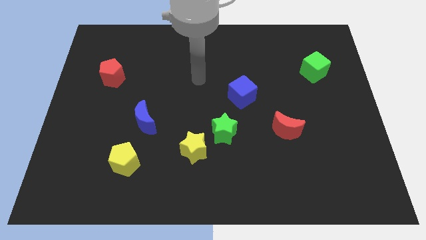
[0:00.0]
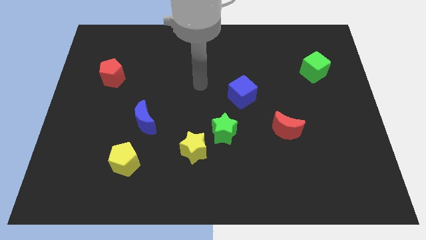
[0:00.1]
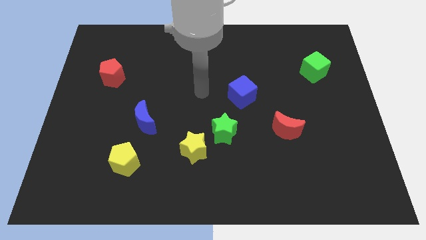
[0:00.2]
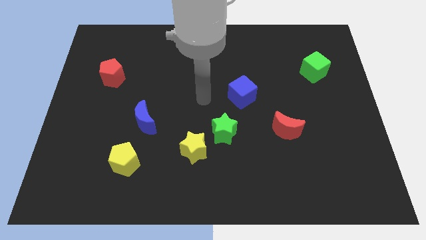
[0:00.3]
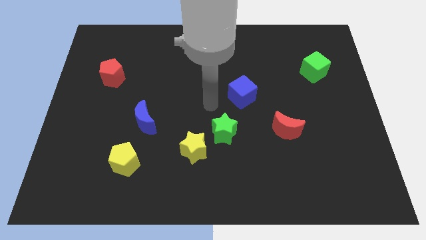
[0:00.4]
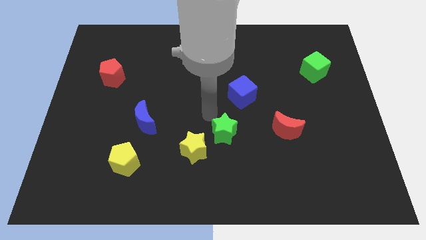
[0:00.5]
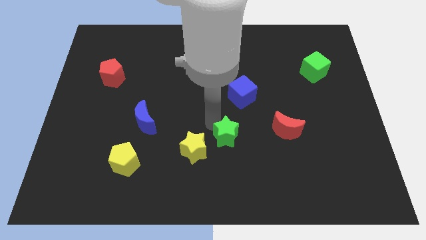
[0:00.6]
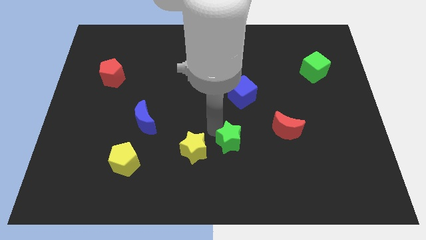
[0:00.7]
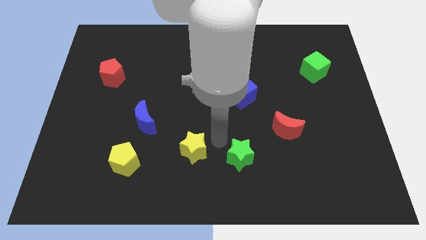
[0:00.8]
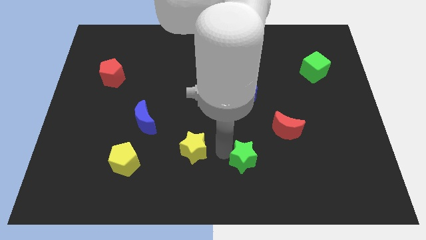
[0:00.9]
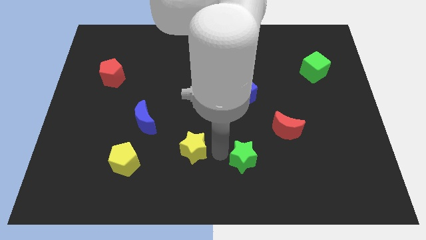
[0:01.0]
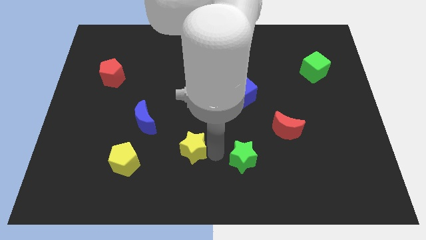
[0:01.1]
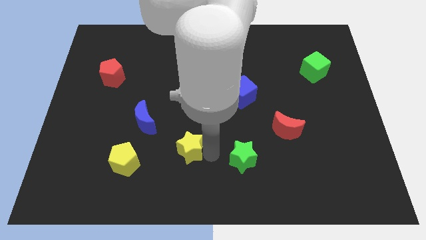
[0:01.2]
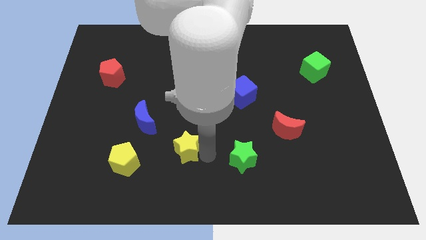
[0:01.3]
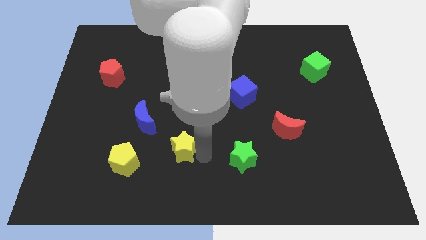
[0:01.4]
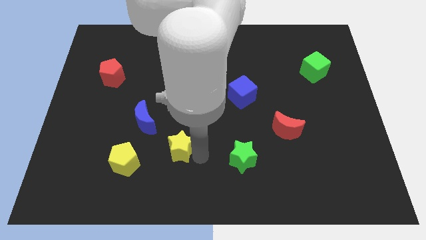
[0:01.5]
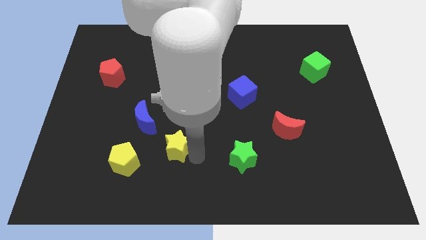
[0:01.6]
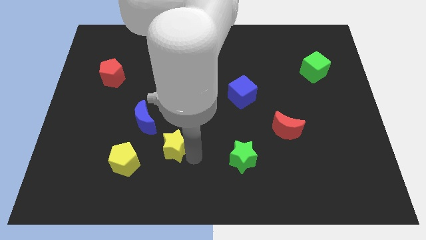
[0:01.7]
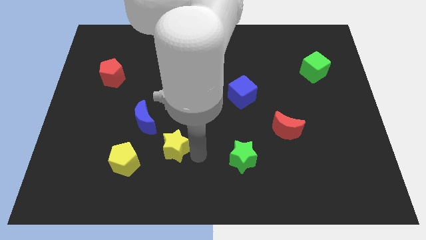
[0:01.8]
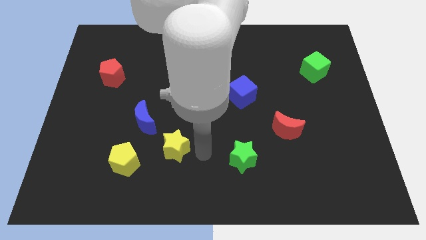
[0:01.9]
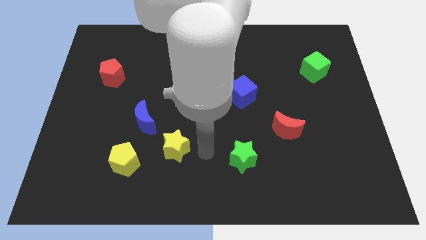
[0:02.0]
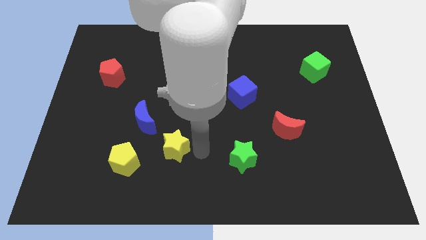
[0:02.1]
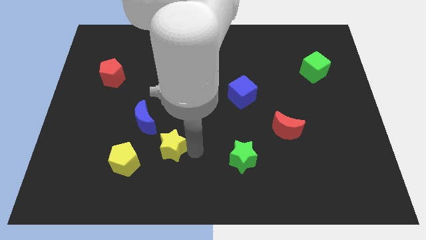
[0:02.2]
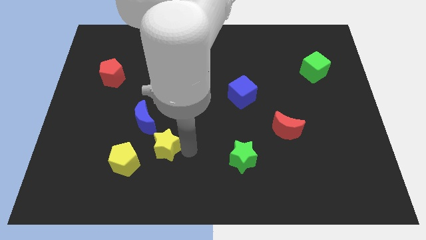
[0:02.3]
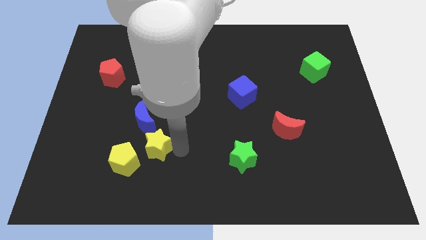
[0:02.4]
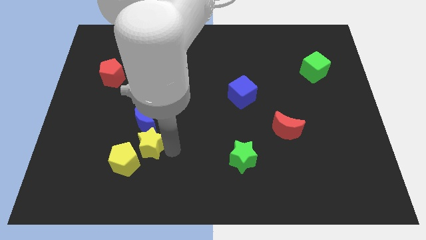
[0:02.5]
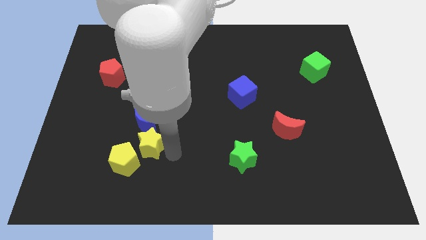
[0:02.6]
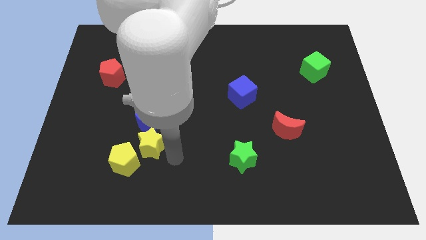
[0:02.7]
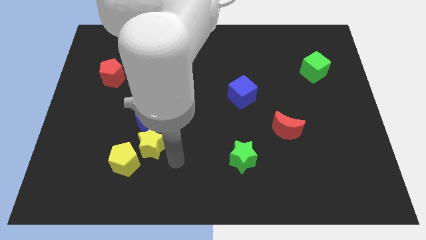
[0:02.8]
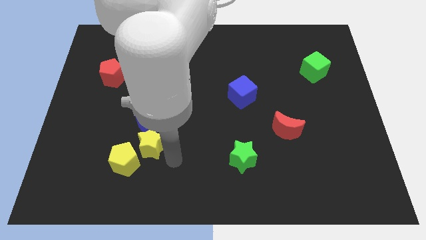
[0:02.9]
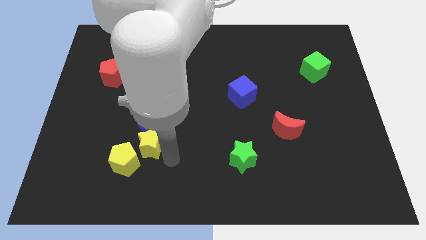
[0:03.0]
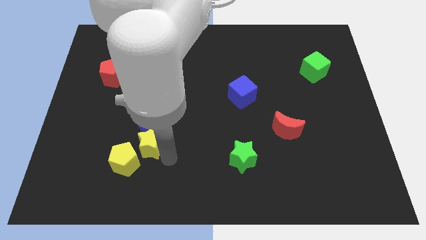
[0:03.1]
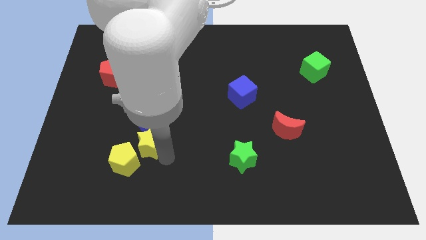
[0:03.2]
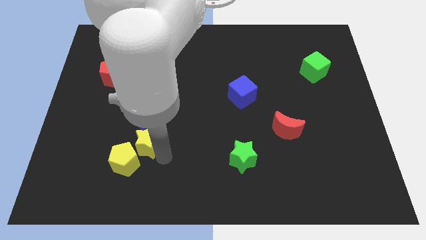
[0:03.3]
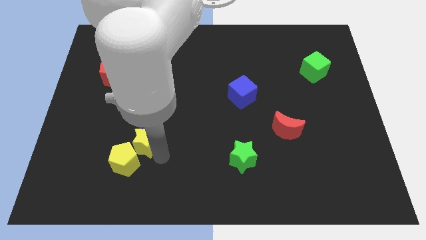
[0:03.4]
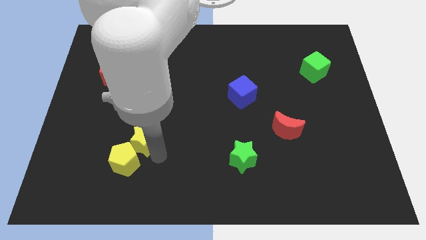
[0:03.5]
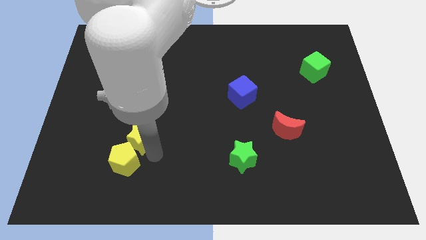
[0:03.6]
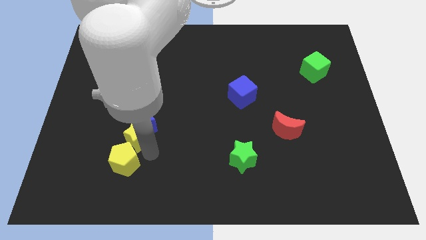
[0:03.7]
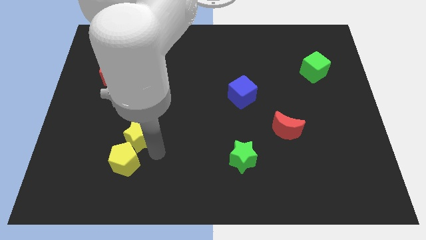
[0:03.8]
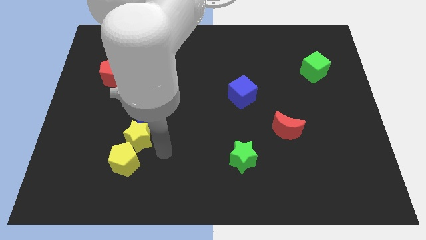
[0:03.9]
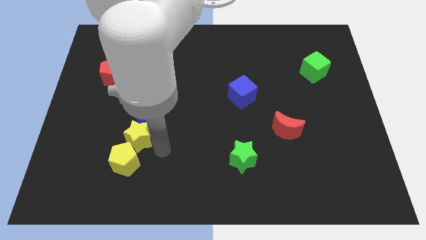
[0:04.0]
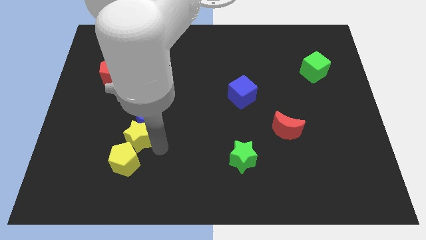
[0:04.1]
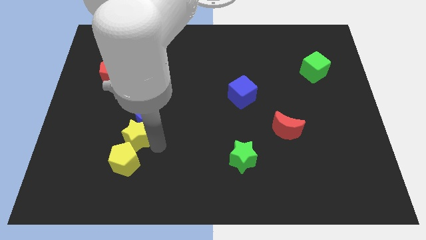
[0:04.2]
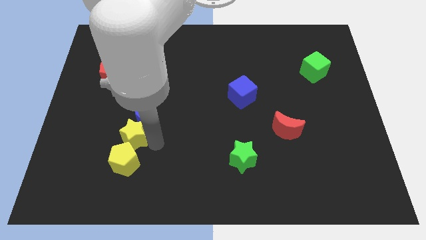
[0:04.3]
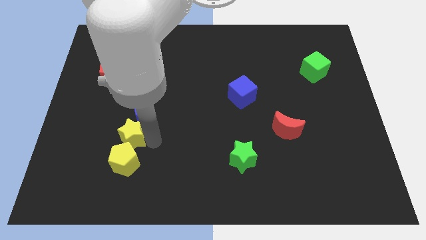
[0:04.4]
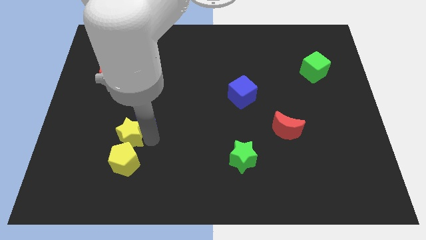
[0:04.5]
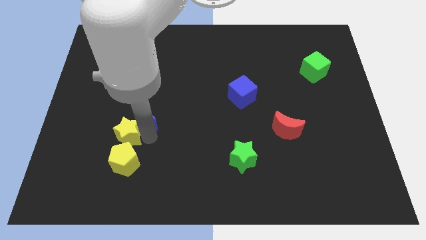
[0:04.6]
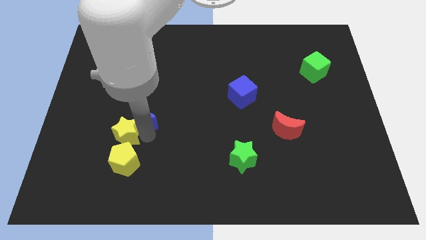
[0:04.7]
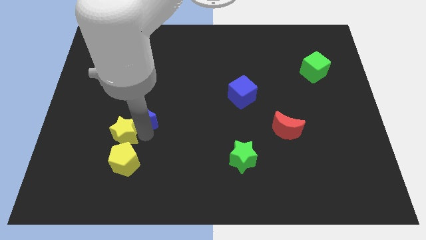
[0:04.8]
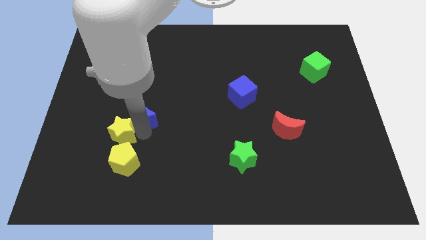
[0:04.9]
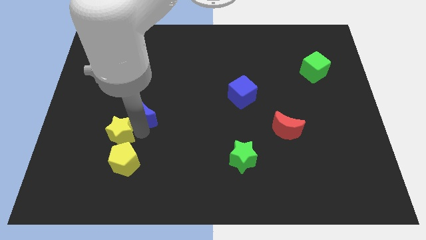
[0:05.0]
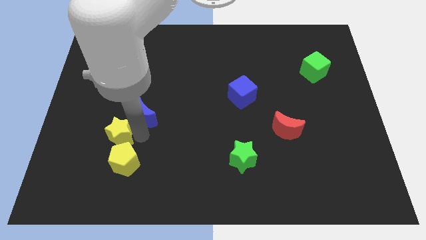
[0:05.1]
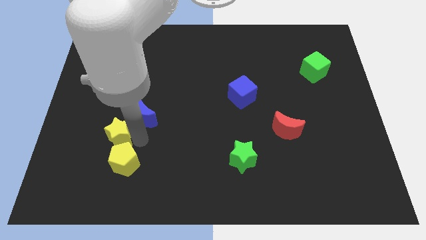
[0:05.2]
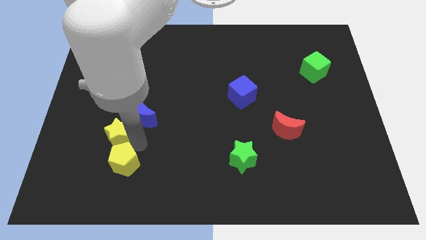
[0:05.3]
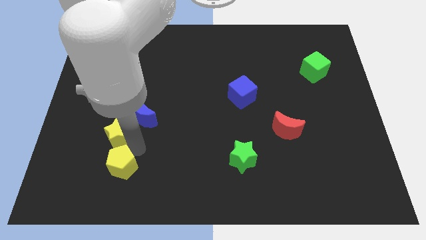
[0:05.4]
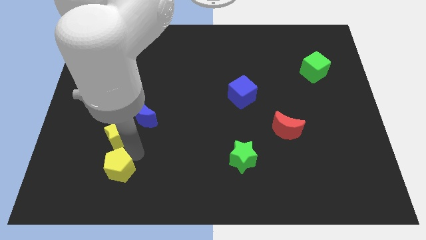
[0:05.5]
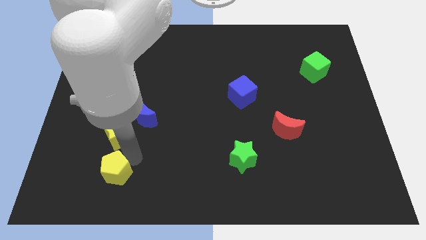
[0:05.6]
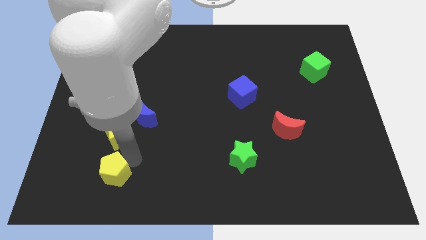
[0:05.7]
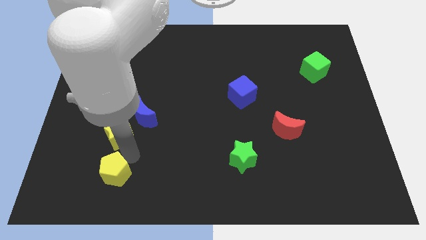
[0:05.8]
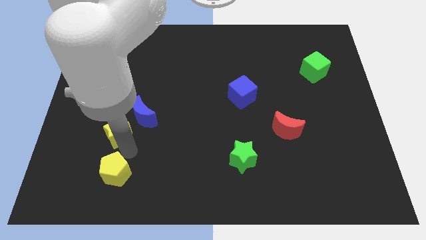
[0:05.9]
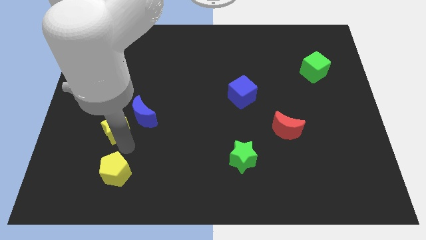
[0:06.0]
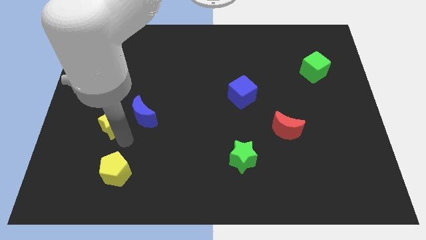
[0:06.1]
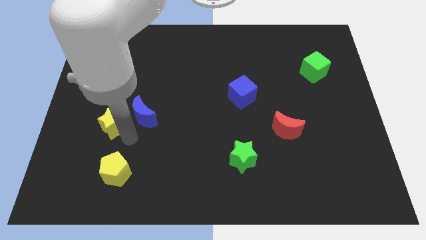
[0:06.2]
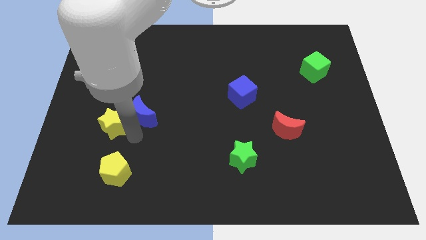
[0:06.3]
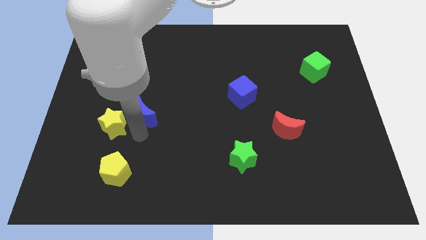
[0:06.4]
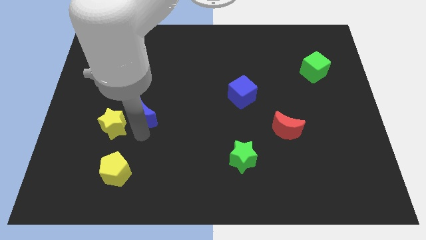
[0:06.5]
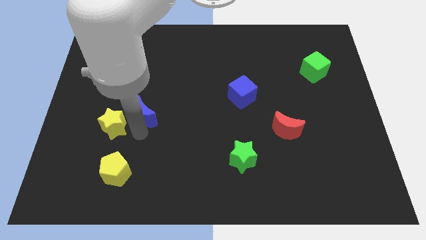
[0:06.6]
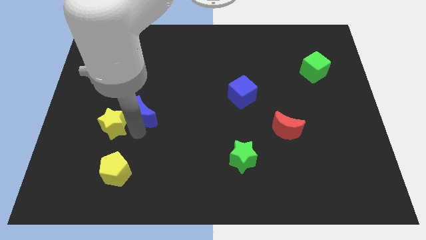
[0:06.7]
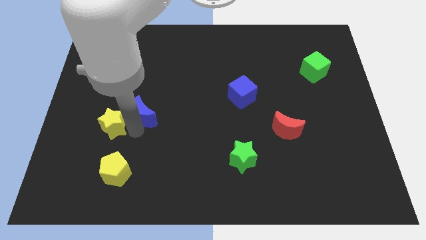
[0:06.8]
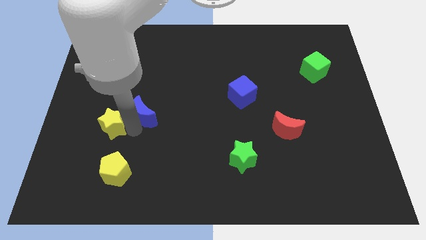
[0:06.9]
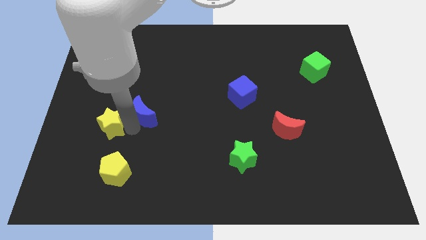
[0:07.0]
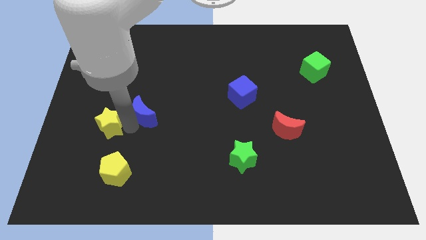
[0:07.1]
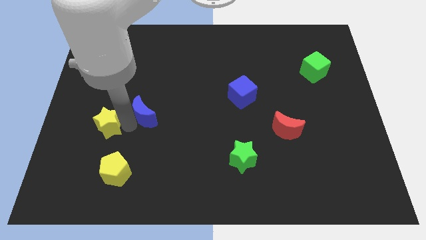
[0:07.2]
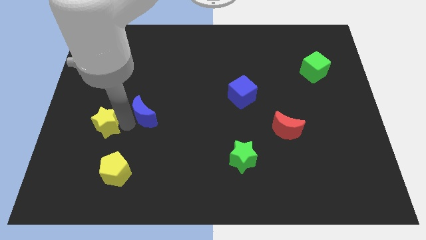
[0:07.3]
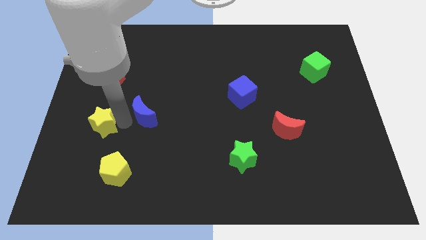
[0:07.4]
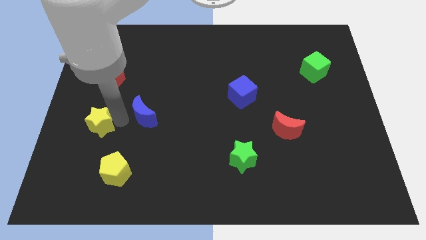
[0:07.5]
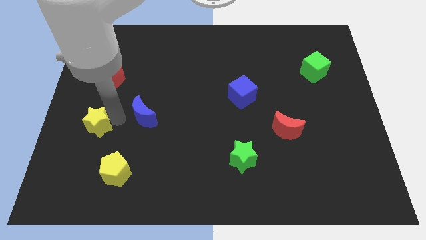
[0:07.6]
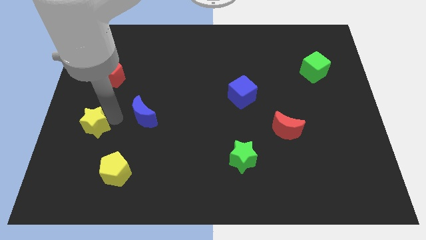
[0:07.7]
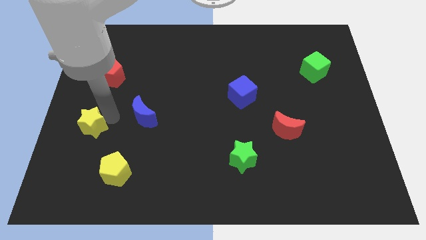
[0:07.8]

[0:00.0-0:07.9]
slide the yellow star to the left side of the board
